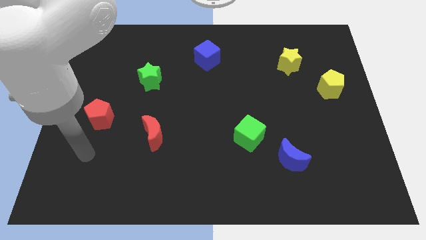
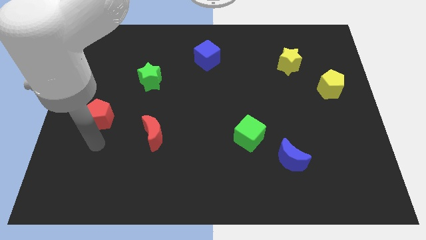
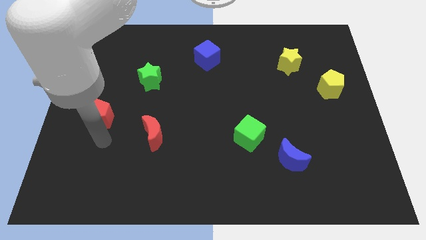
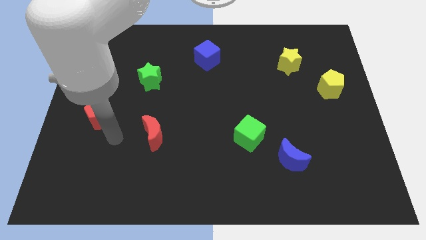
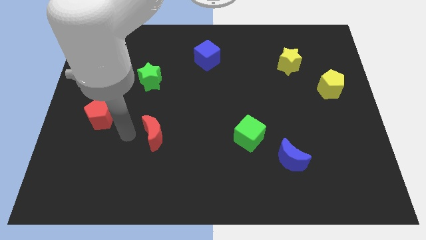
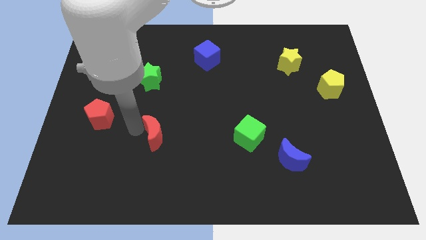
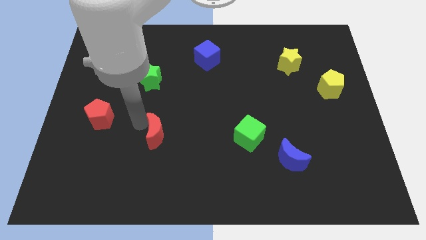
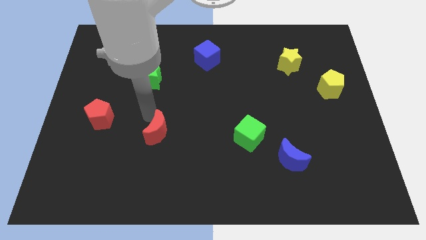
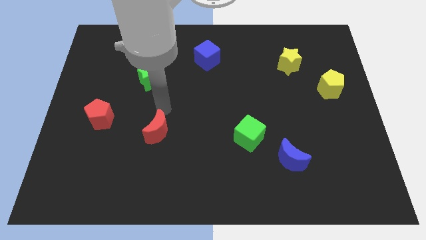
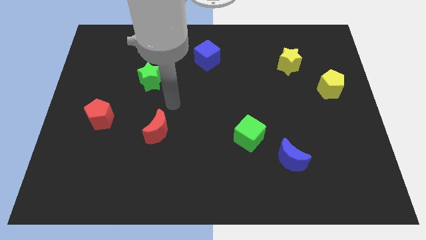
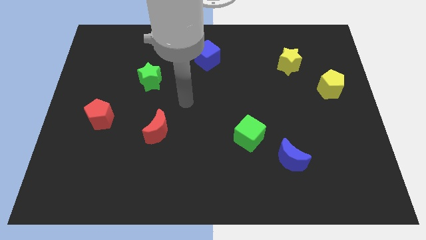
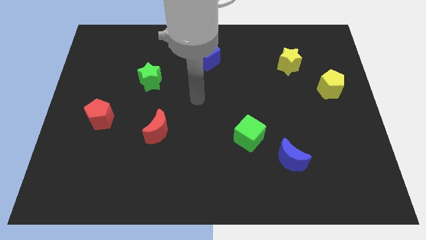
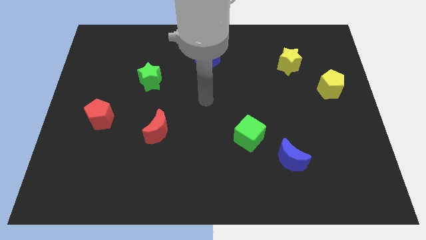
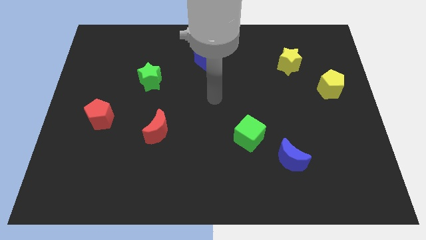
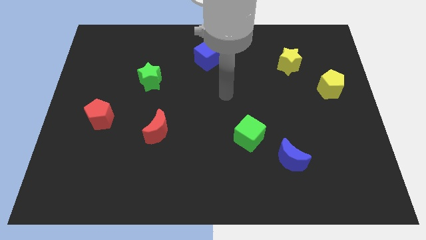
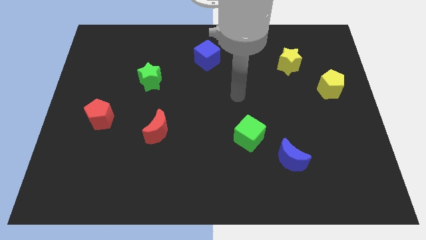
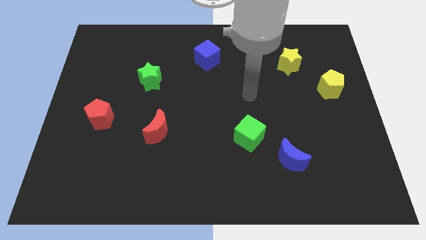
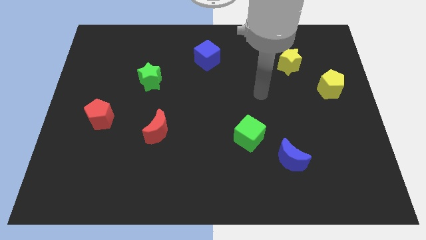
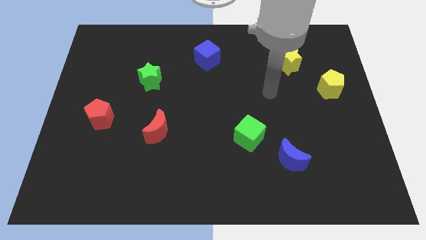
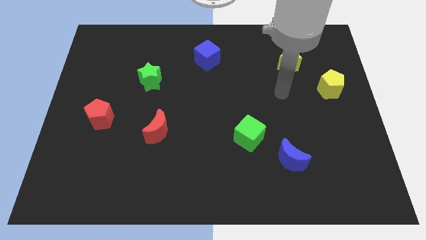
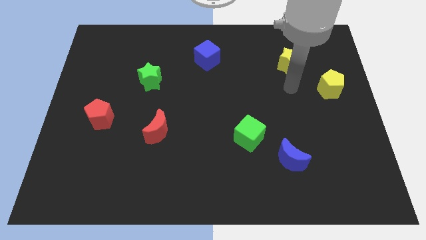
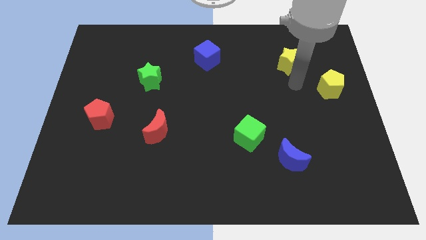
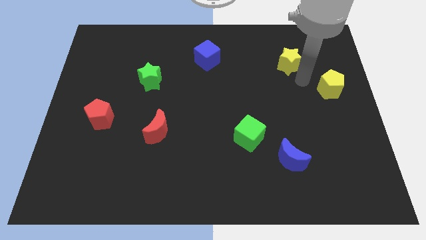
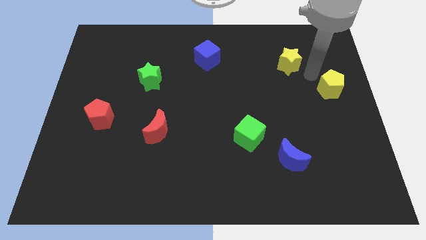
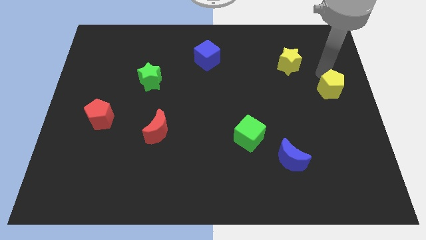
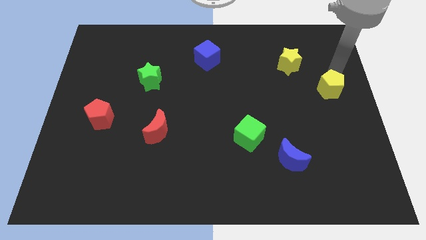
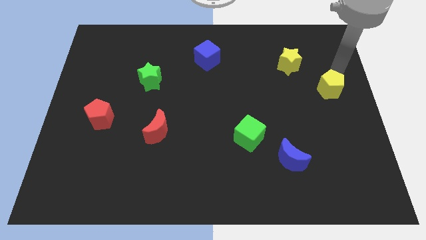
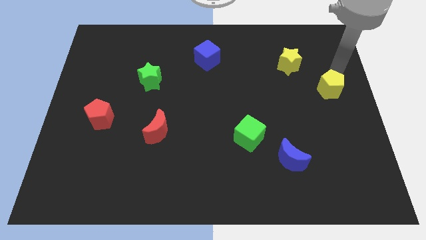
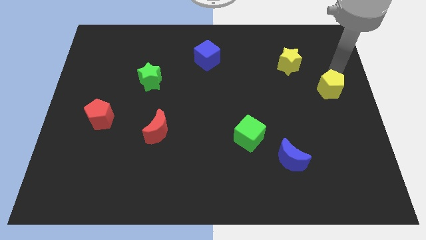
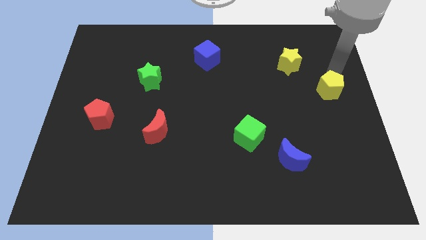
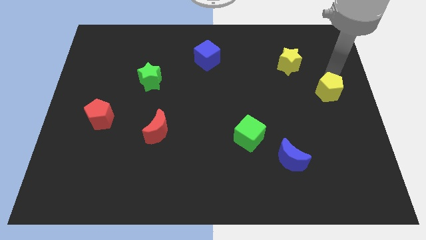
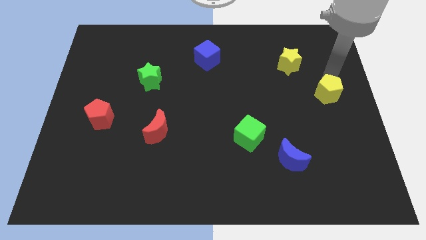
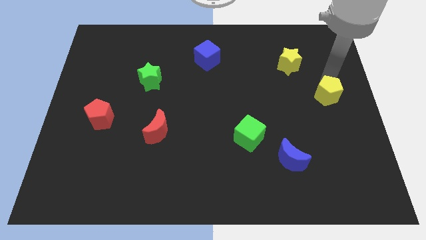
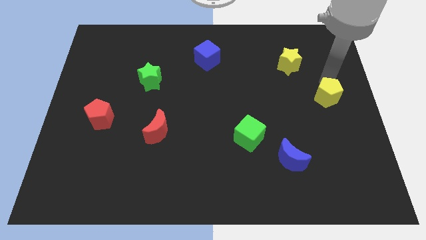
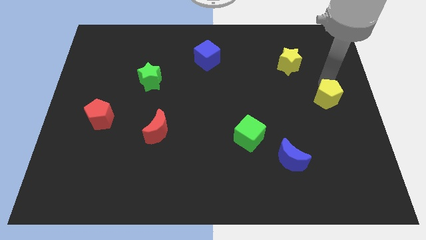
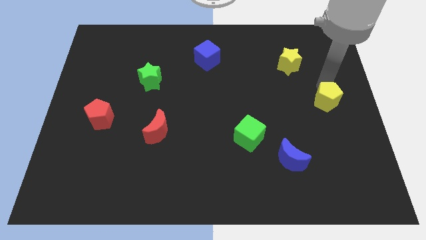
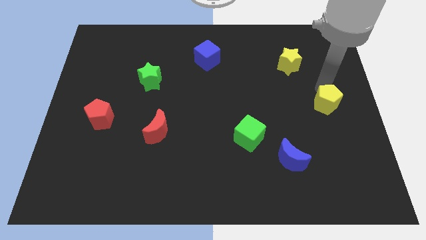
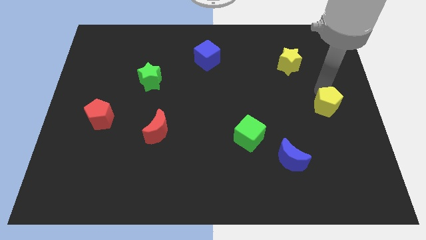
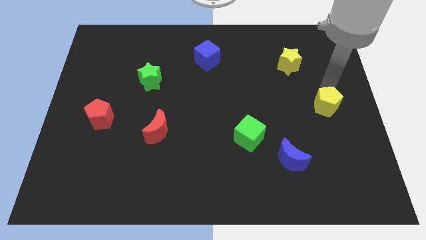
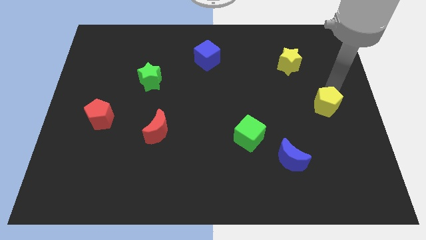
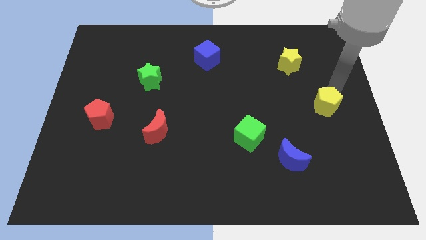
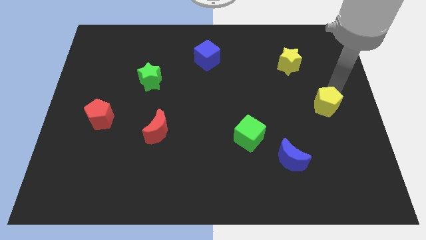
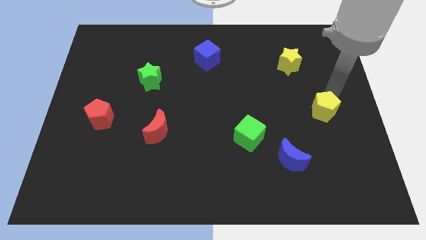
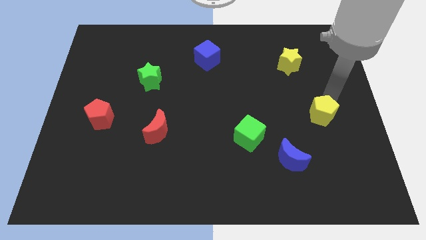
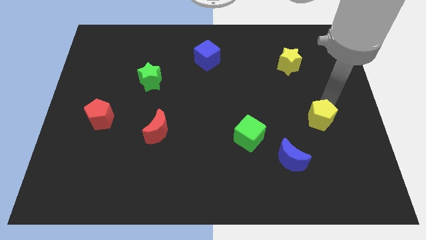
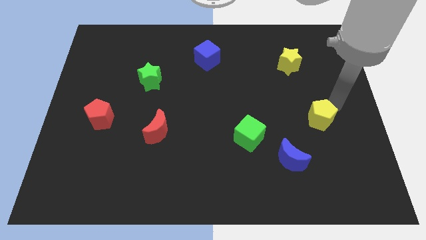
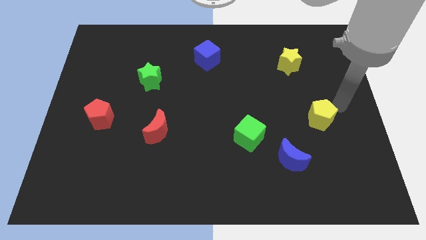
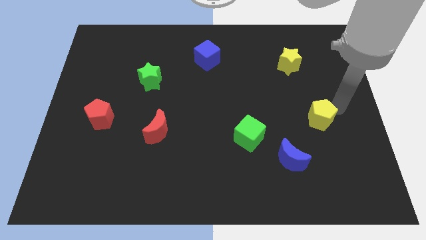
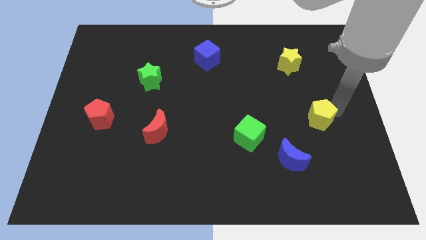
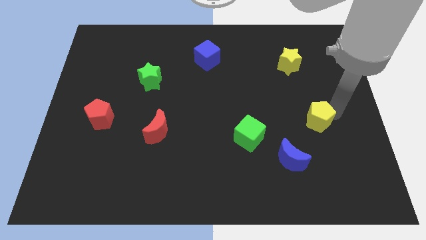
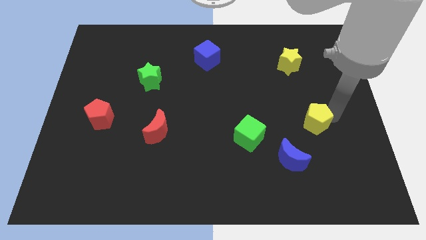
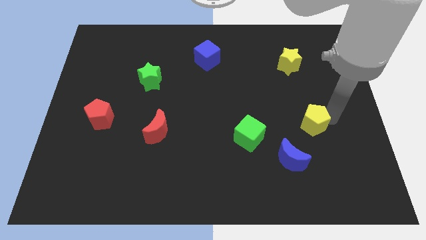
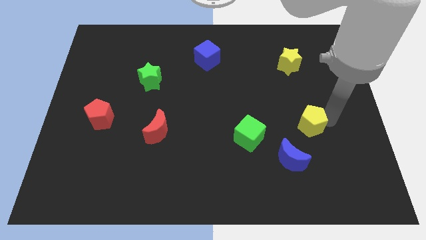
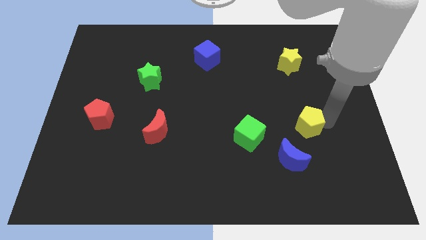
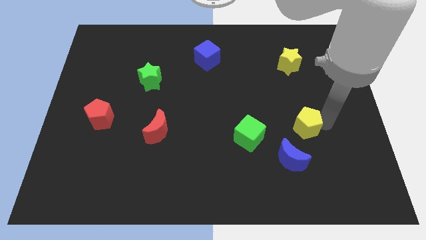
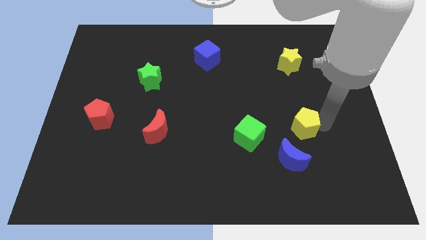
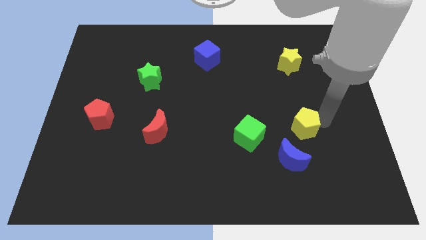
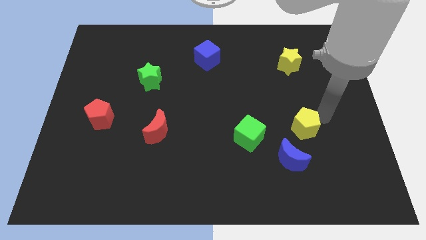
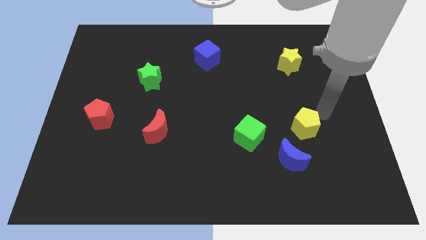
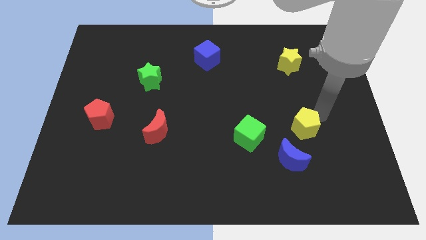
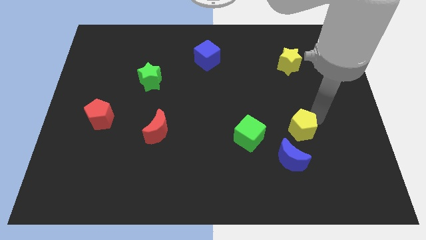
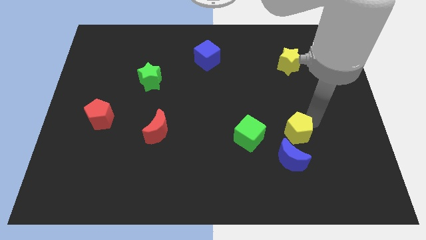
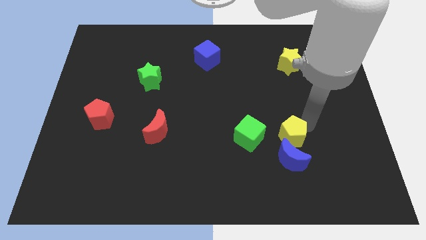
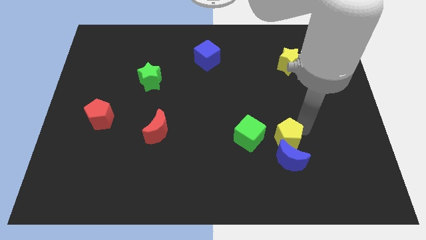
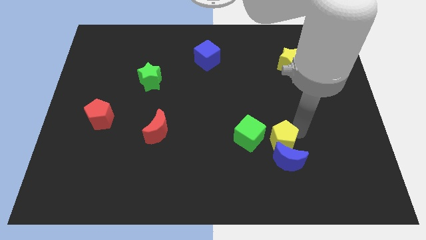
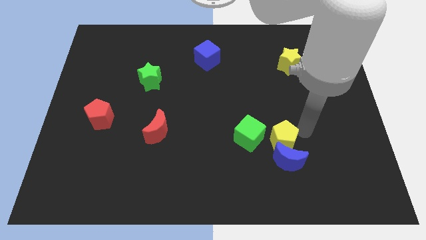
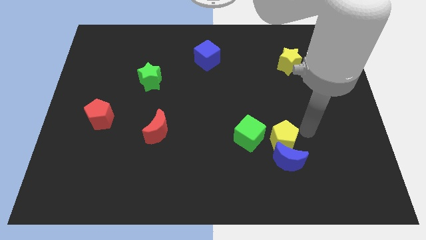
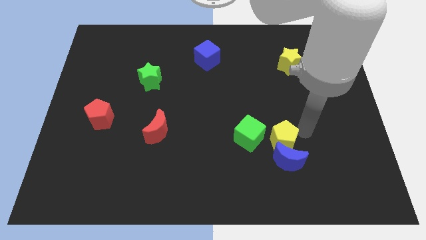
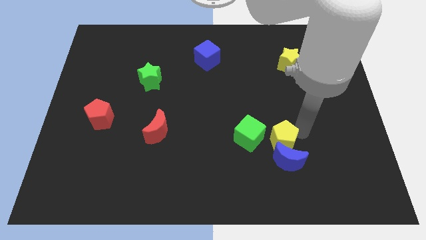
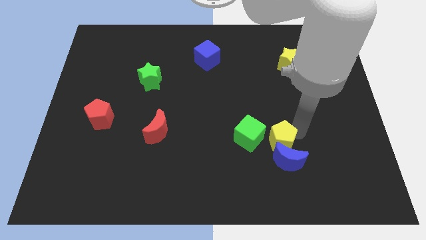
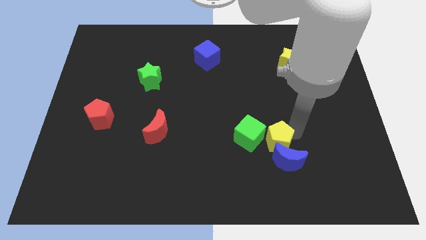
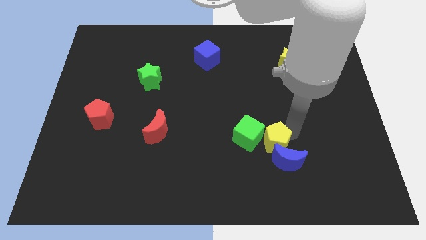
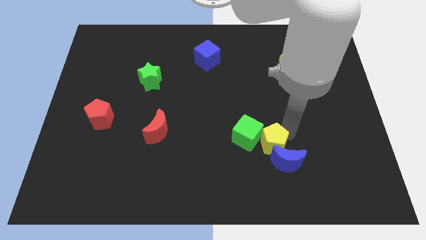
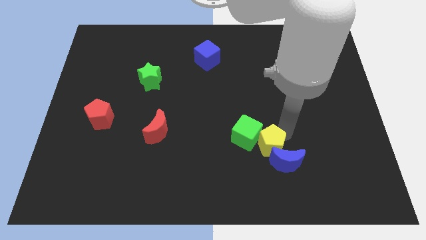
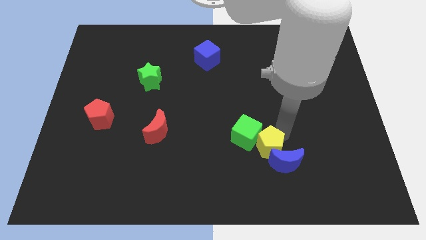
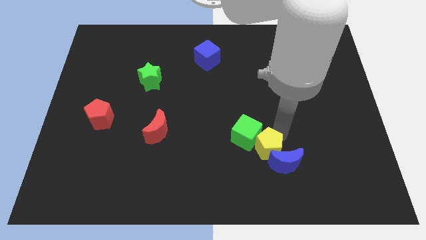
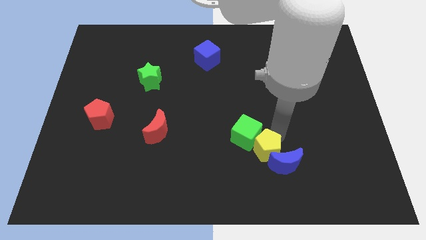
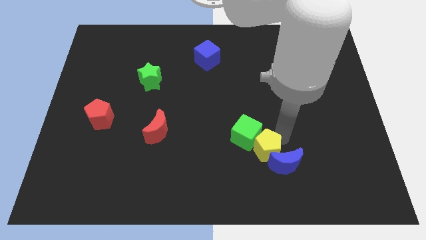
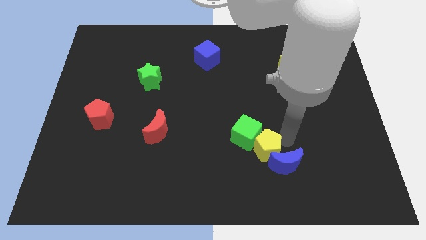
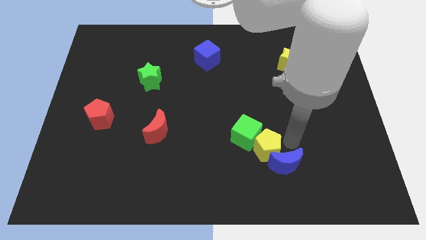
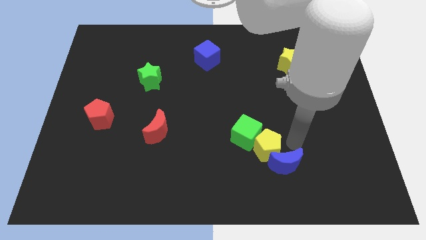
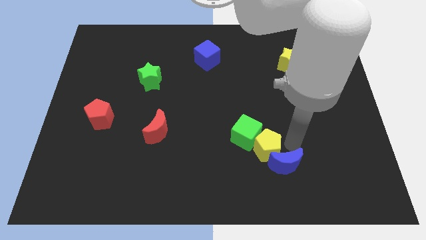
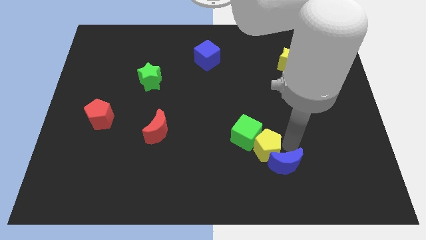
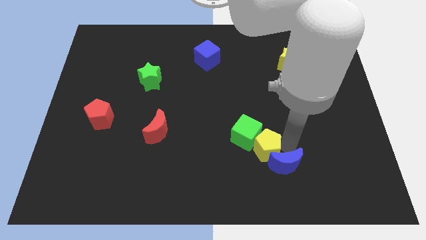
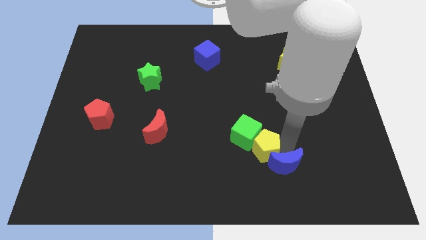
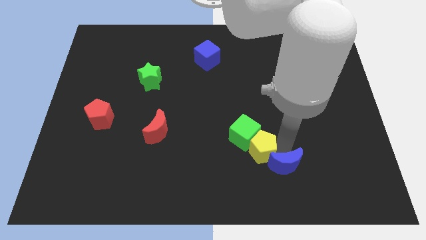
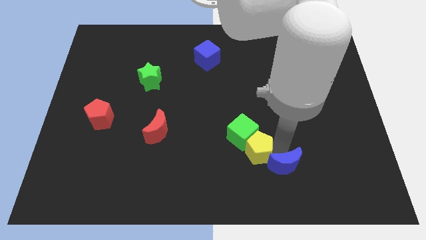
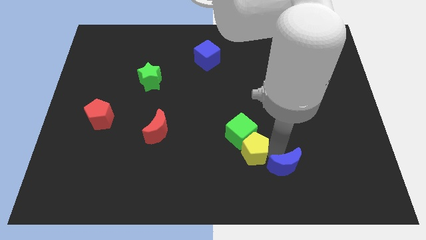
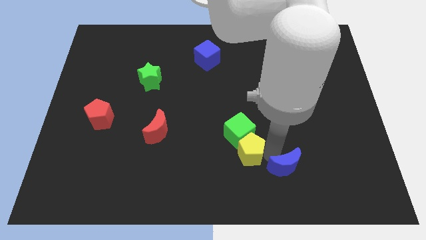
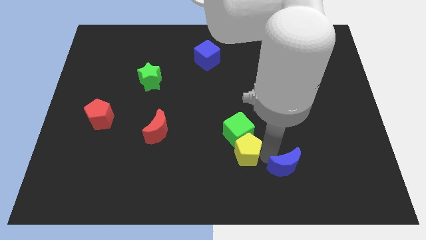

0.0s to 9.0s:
slide the yellow pentagon diagonally down and to the left of the green cube
